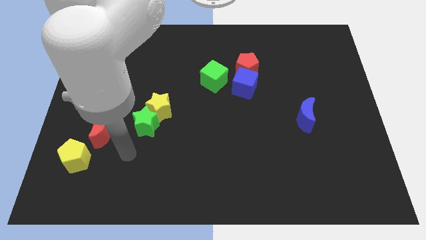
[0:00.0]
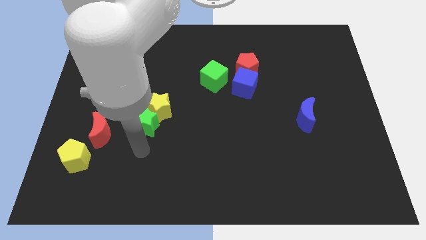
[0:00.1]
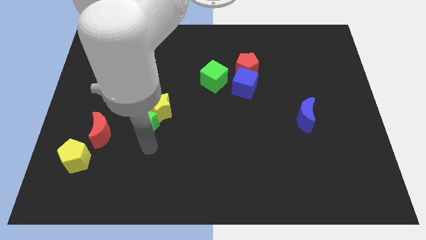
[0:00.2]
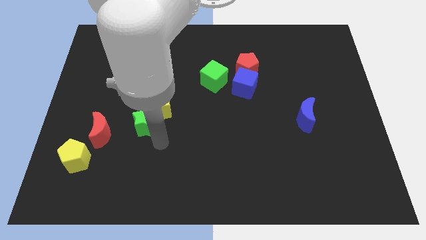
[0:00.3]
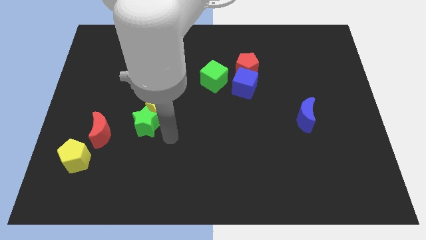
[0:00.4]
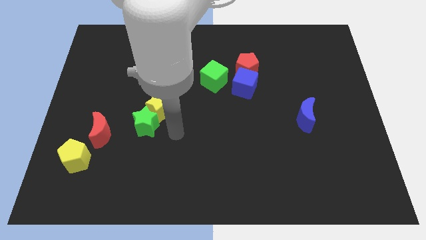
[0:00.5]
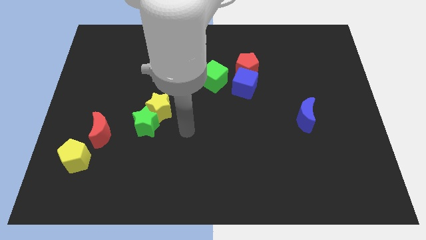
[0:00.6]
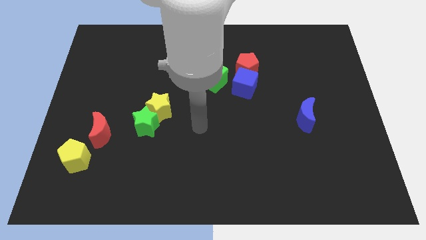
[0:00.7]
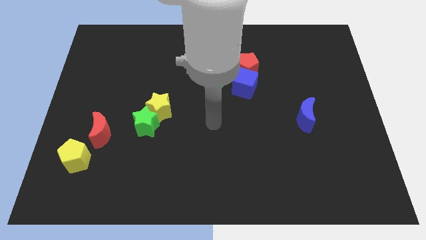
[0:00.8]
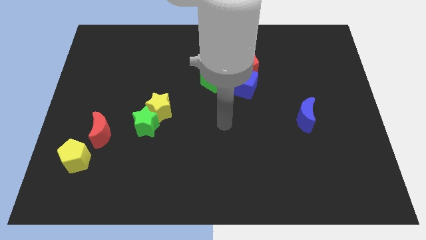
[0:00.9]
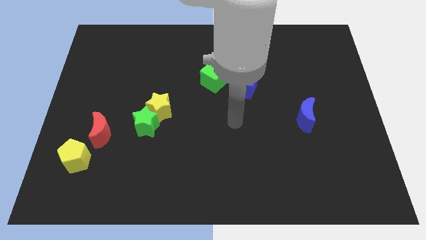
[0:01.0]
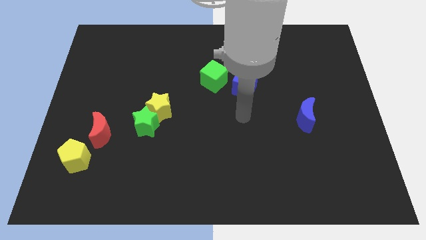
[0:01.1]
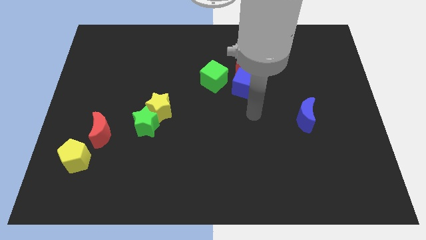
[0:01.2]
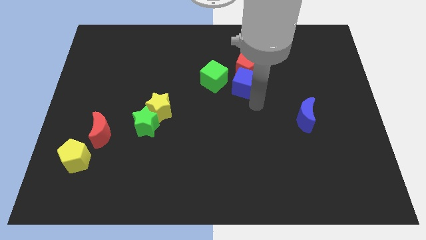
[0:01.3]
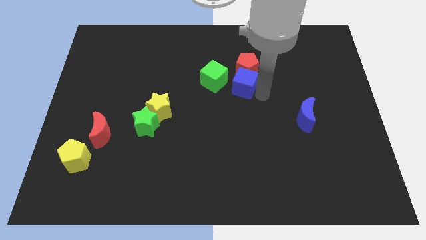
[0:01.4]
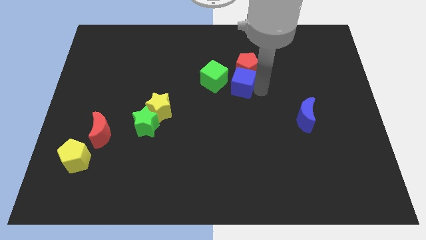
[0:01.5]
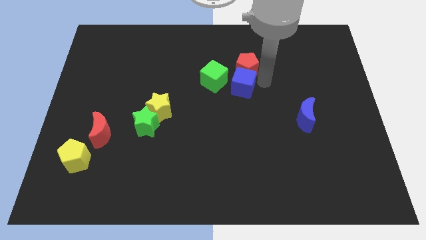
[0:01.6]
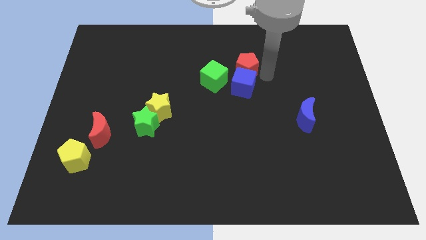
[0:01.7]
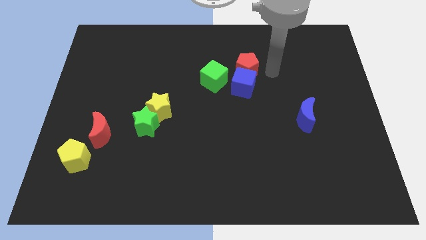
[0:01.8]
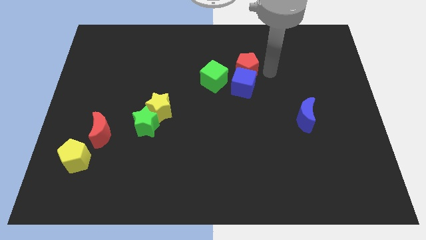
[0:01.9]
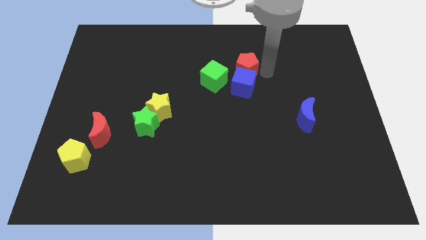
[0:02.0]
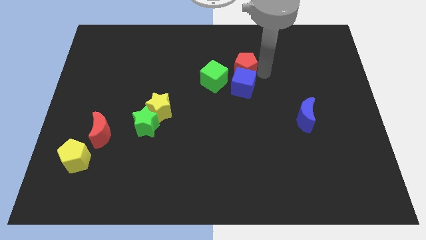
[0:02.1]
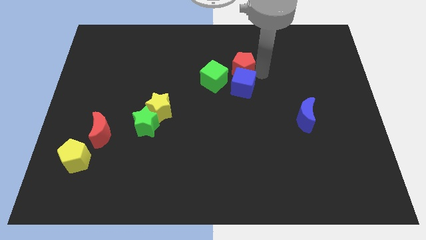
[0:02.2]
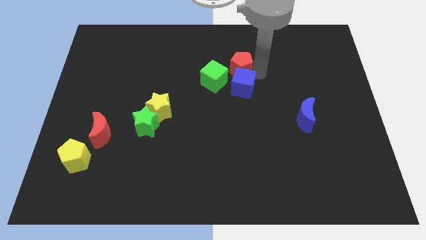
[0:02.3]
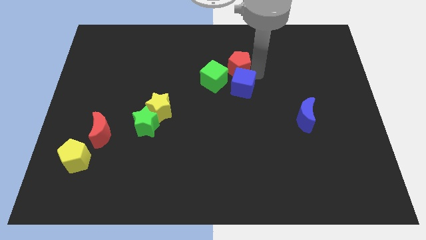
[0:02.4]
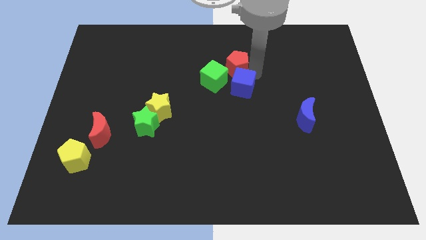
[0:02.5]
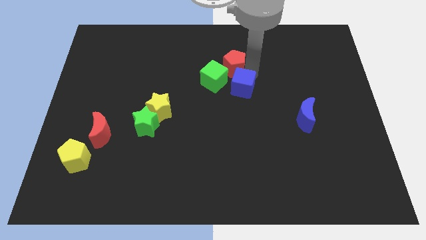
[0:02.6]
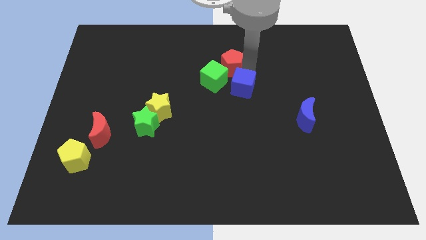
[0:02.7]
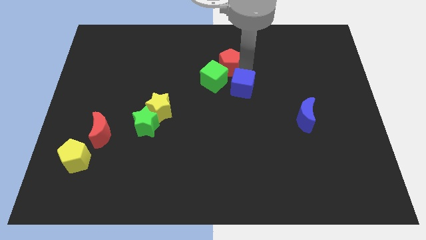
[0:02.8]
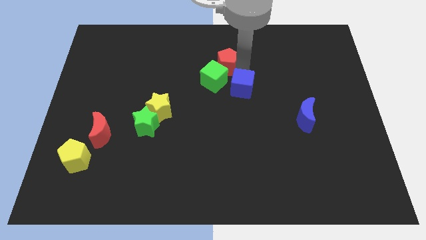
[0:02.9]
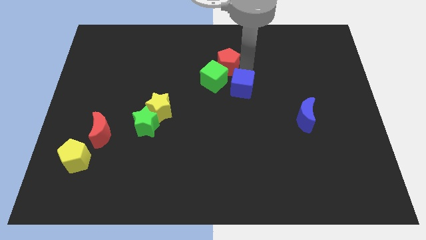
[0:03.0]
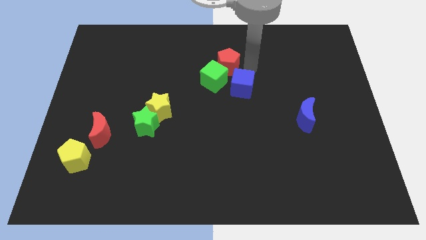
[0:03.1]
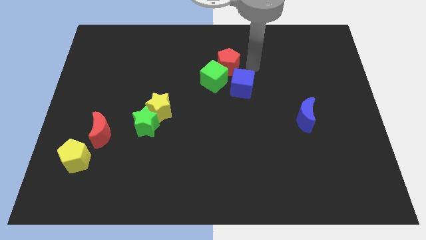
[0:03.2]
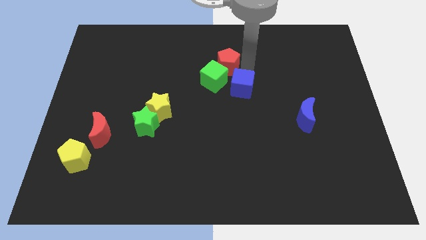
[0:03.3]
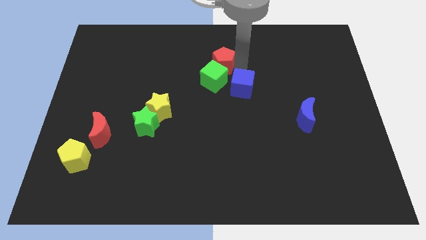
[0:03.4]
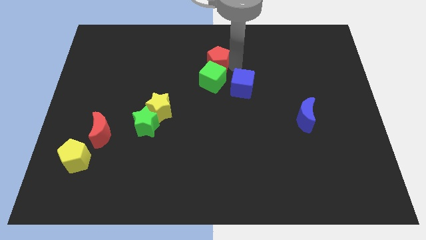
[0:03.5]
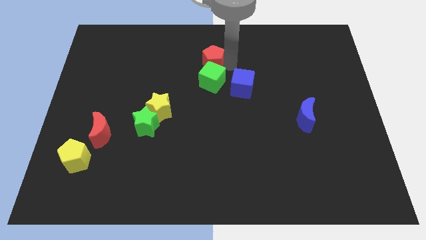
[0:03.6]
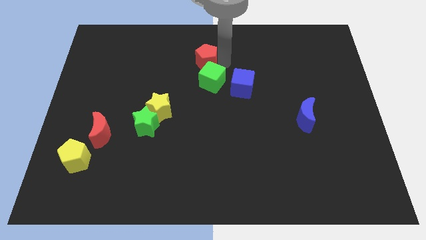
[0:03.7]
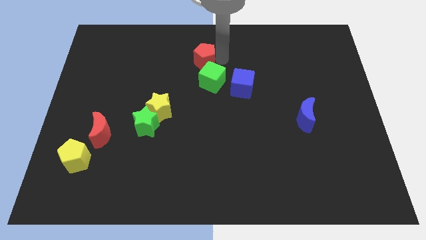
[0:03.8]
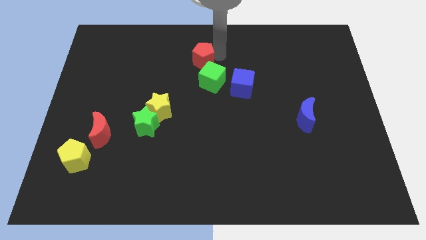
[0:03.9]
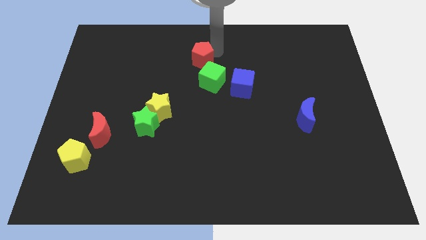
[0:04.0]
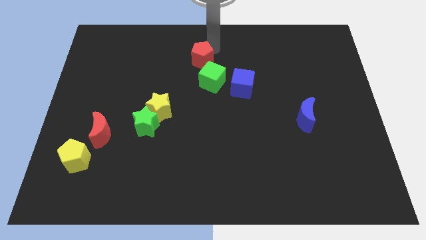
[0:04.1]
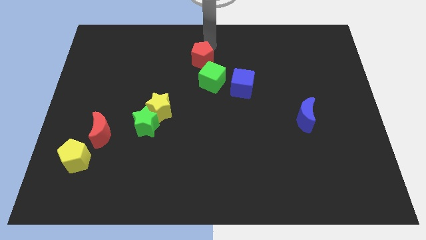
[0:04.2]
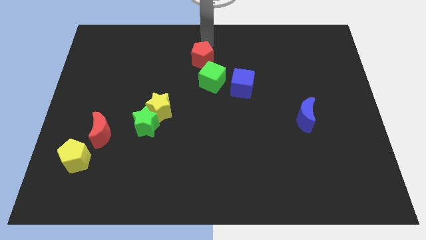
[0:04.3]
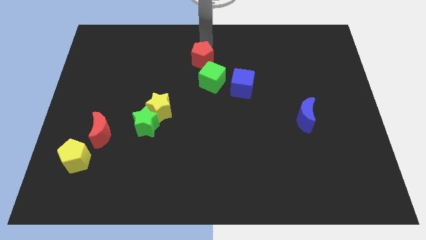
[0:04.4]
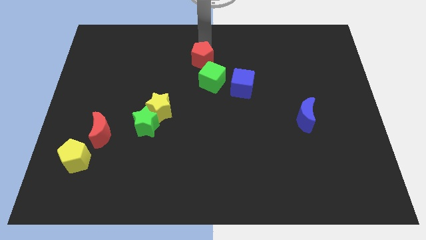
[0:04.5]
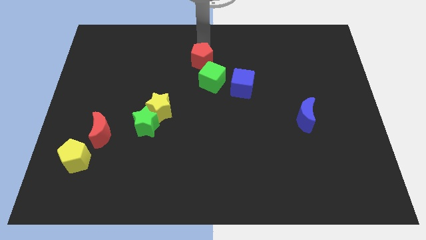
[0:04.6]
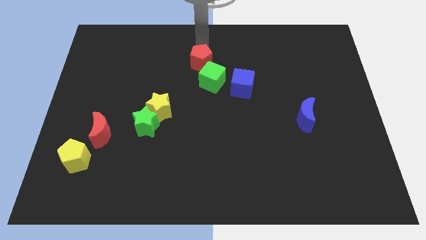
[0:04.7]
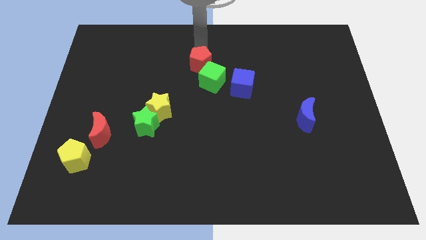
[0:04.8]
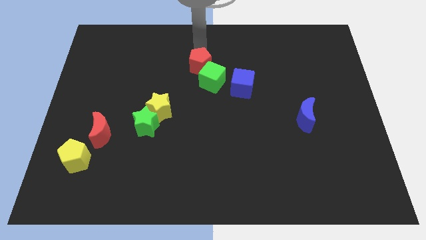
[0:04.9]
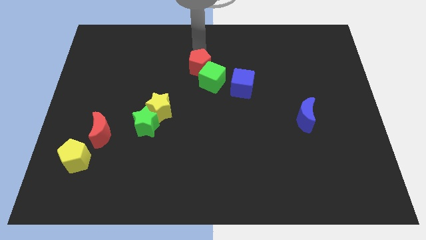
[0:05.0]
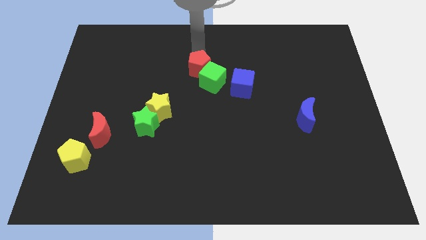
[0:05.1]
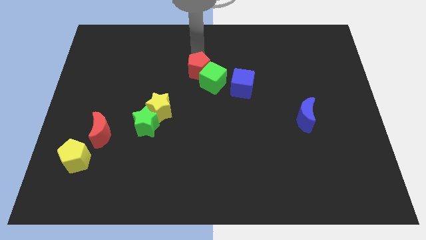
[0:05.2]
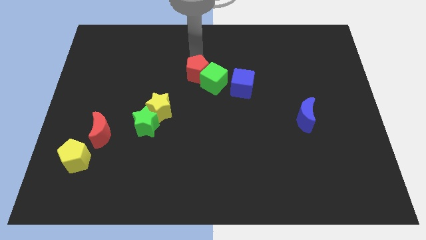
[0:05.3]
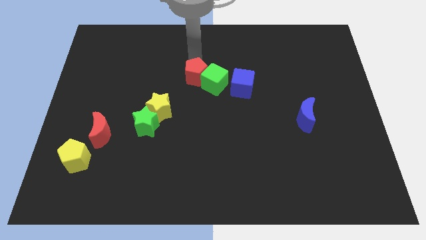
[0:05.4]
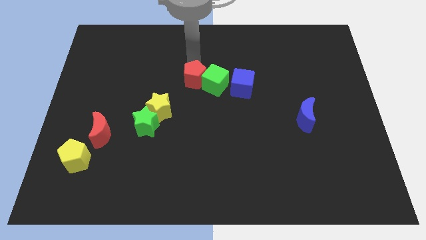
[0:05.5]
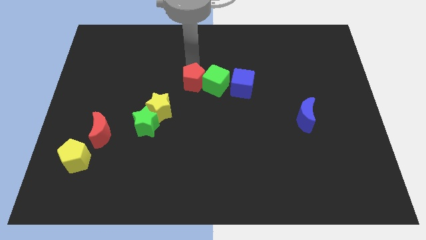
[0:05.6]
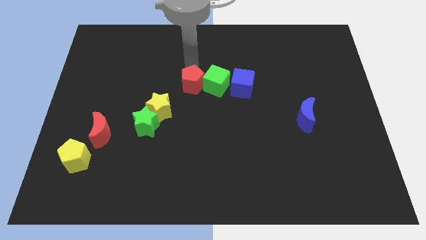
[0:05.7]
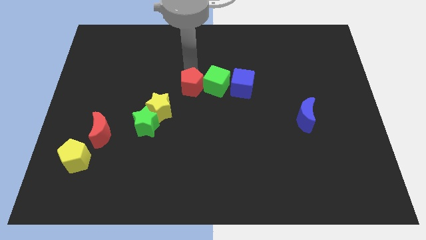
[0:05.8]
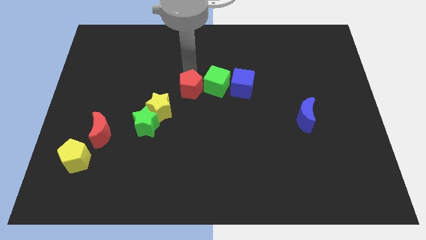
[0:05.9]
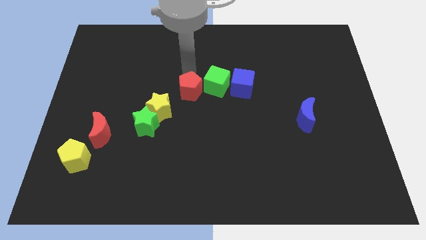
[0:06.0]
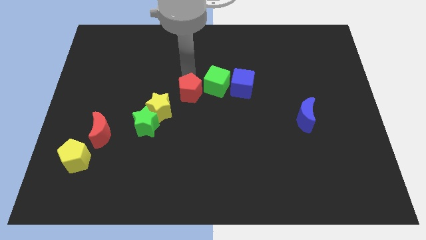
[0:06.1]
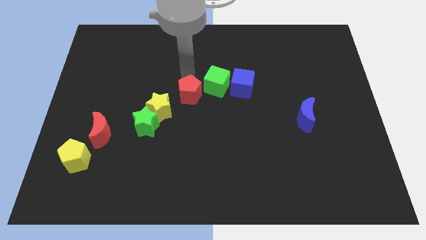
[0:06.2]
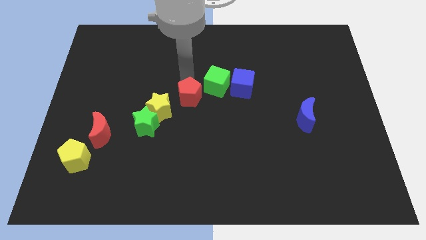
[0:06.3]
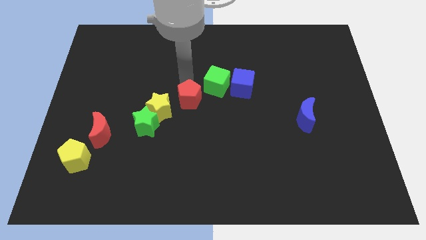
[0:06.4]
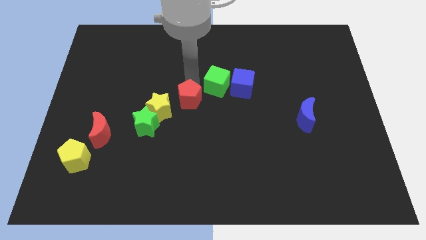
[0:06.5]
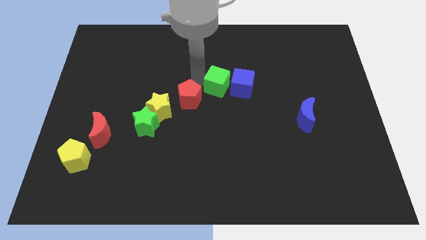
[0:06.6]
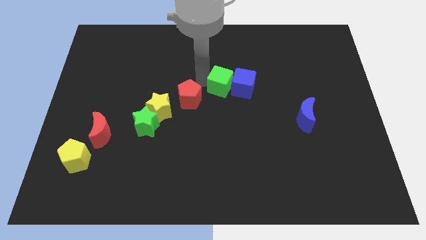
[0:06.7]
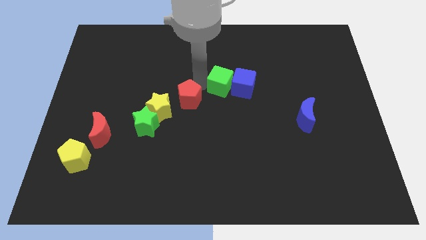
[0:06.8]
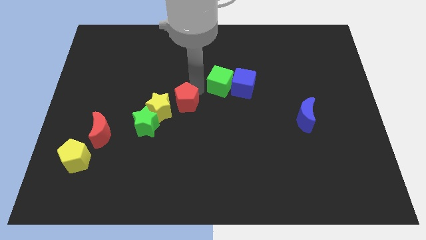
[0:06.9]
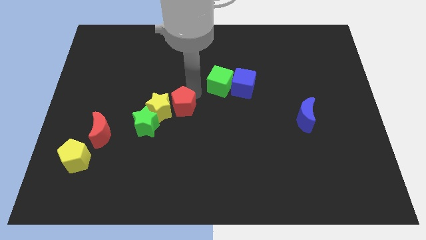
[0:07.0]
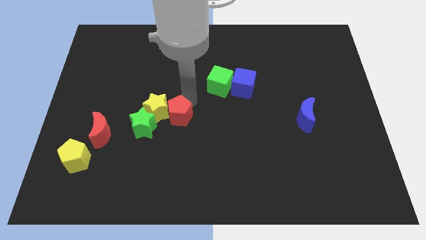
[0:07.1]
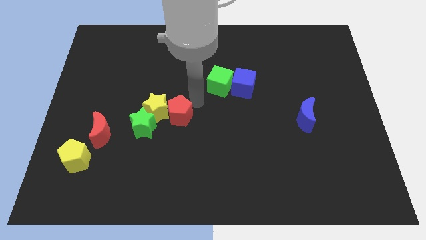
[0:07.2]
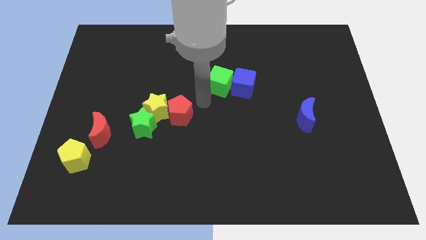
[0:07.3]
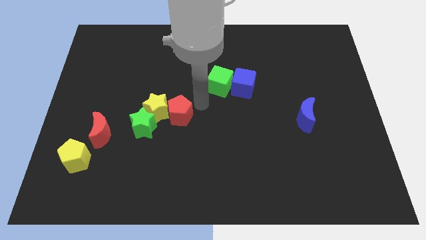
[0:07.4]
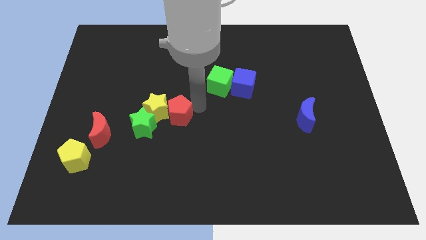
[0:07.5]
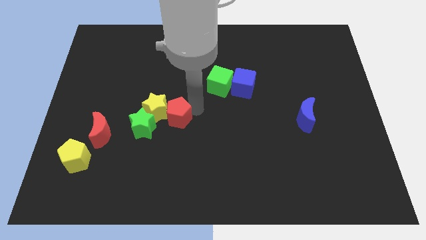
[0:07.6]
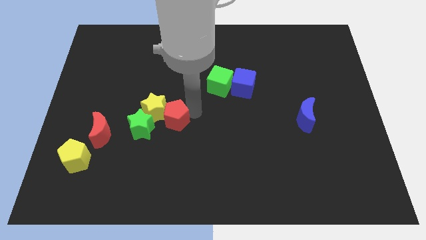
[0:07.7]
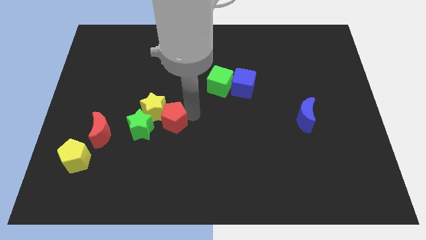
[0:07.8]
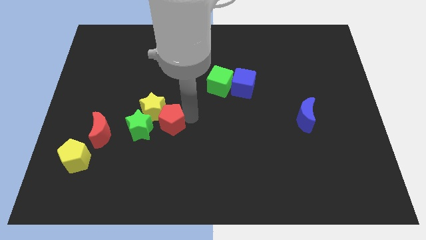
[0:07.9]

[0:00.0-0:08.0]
push the red pentagon to the right of the red moon
